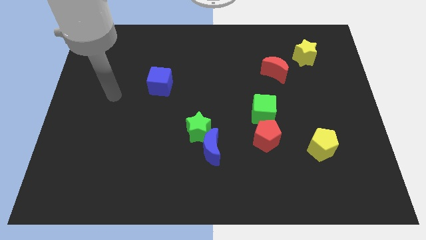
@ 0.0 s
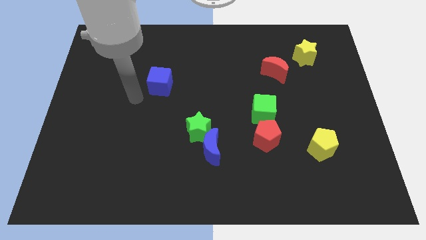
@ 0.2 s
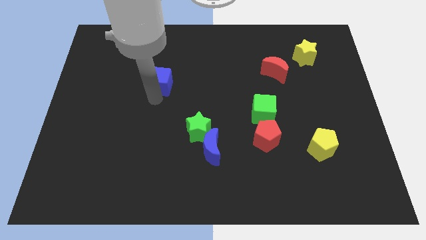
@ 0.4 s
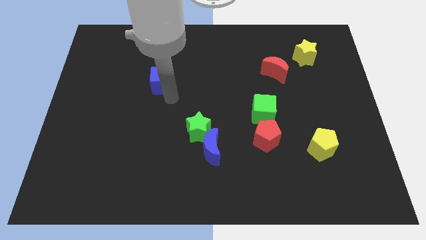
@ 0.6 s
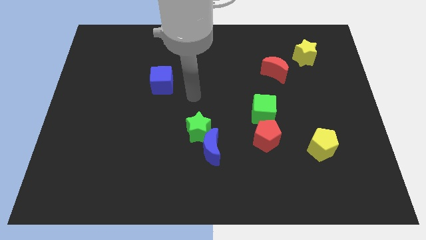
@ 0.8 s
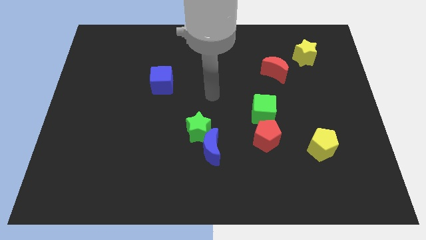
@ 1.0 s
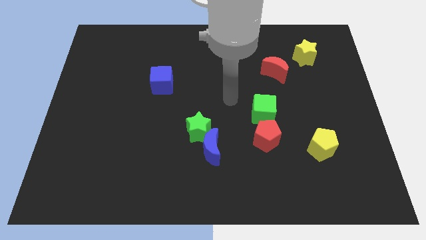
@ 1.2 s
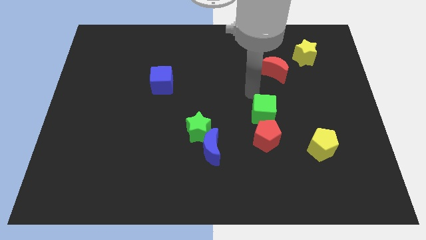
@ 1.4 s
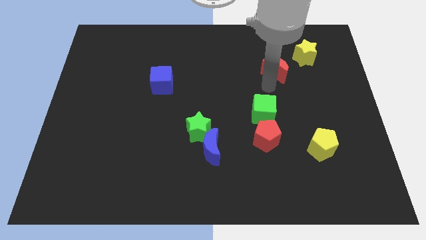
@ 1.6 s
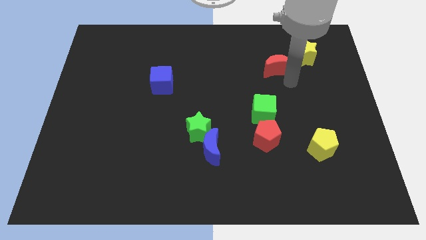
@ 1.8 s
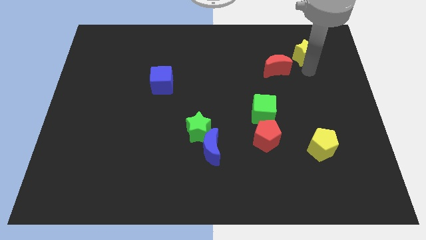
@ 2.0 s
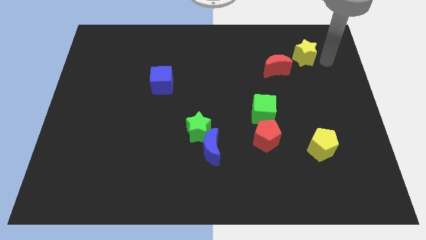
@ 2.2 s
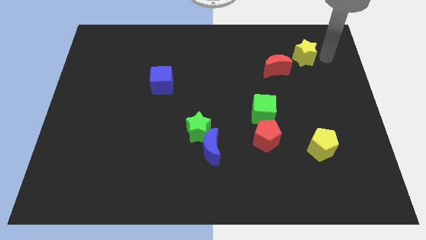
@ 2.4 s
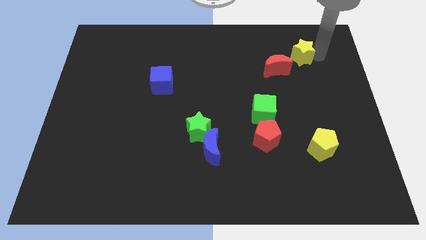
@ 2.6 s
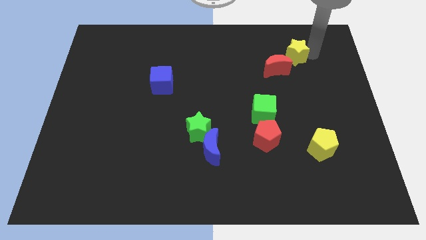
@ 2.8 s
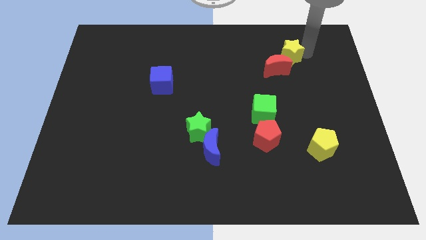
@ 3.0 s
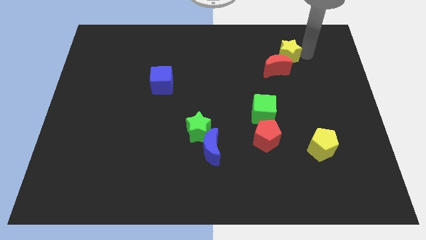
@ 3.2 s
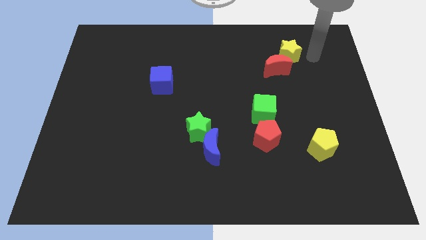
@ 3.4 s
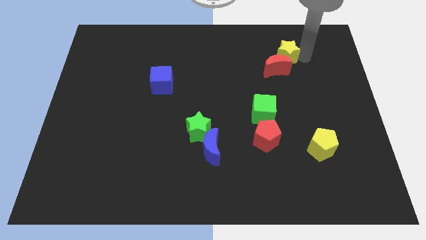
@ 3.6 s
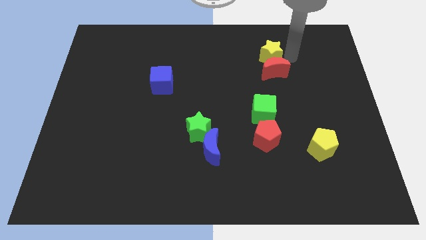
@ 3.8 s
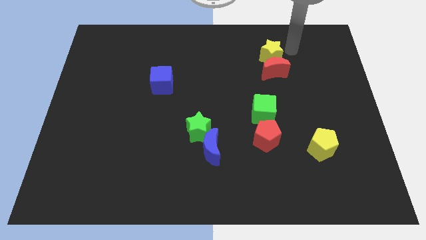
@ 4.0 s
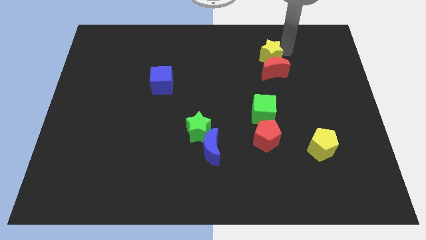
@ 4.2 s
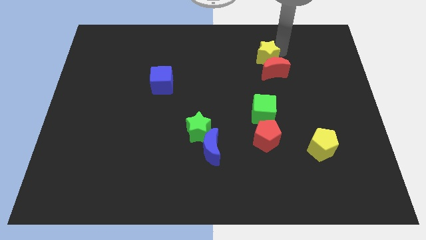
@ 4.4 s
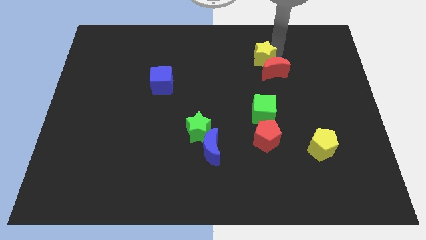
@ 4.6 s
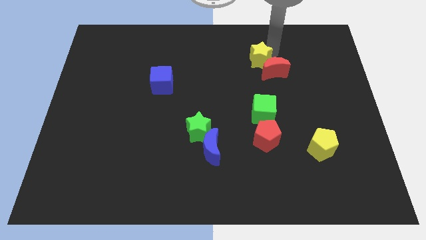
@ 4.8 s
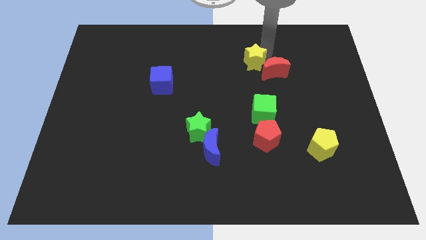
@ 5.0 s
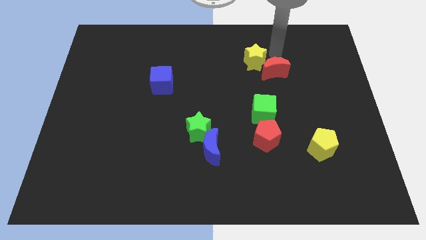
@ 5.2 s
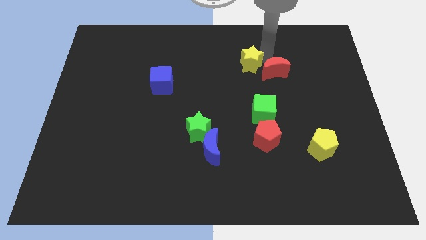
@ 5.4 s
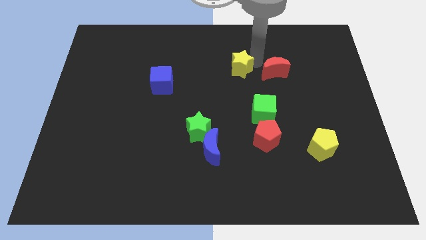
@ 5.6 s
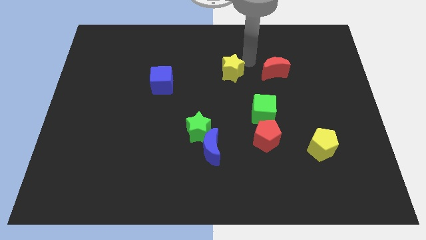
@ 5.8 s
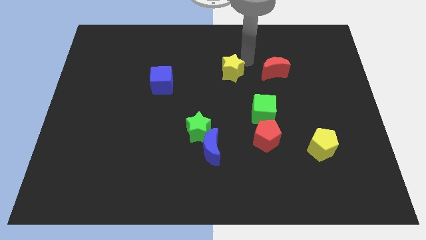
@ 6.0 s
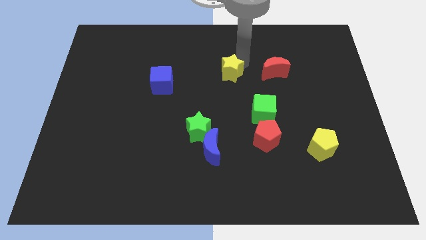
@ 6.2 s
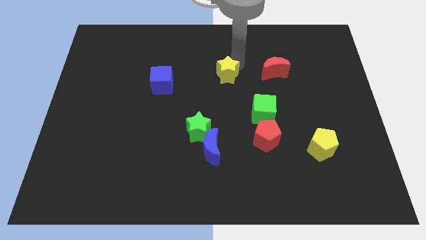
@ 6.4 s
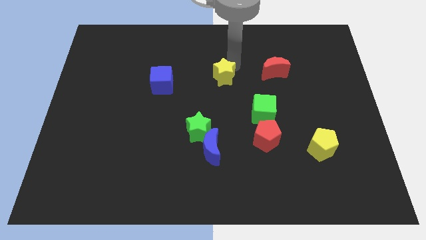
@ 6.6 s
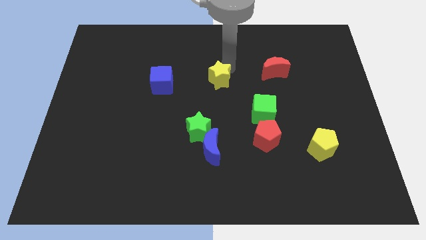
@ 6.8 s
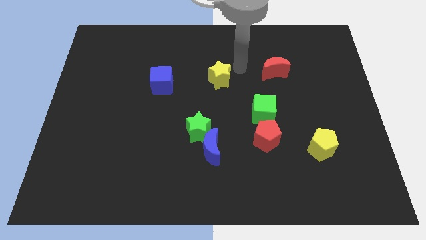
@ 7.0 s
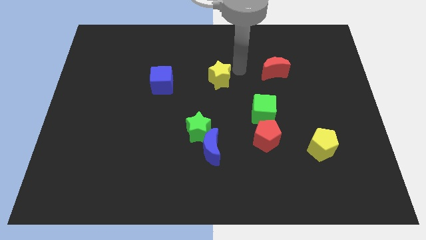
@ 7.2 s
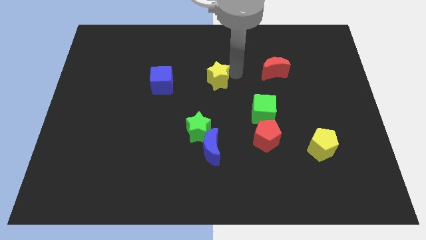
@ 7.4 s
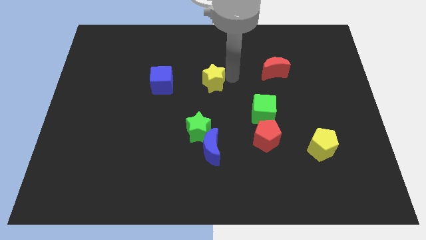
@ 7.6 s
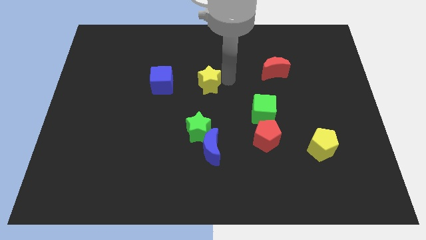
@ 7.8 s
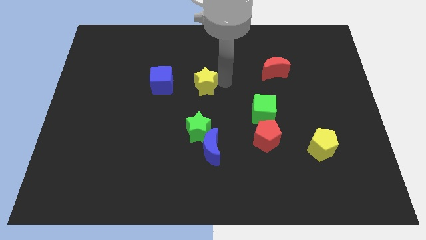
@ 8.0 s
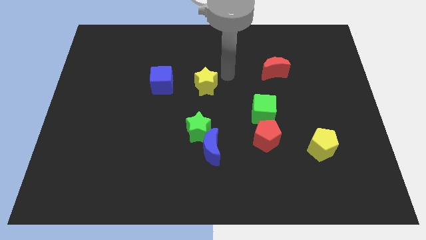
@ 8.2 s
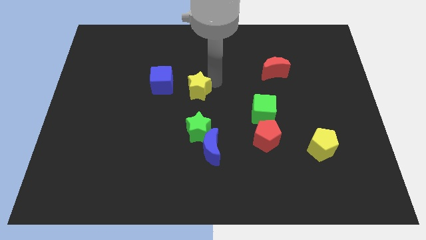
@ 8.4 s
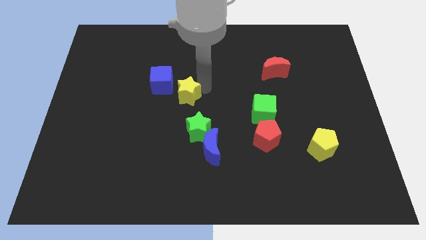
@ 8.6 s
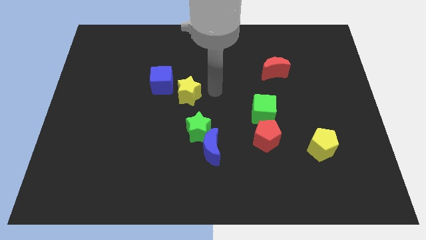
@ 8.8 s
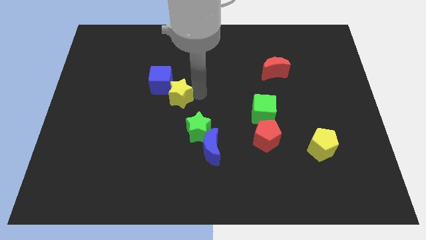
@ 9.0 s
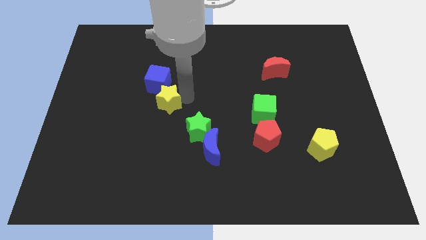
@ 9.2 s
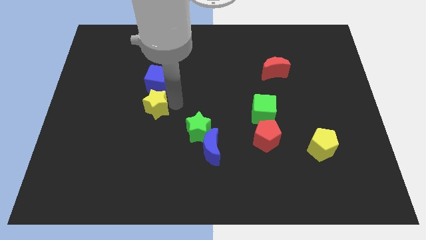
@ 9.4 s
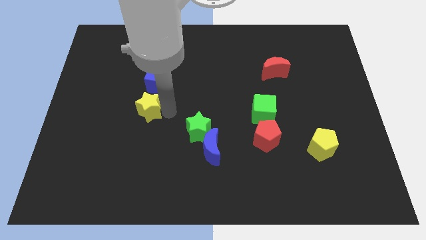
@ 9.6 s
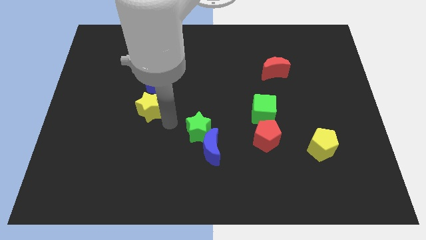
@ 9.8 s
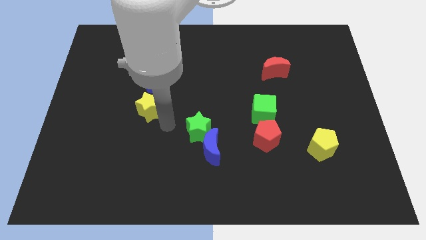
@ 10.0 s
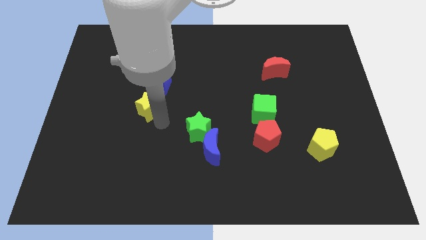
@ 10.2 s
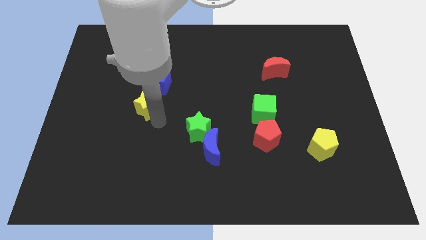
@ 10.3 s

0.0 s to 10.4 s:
push the yellow star to the bottom left of the blue cube

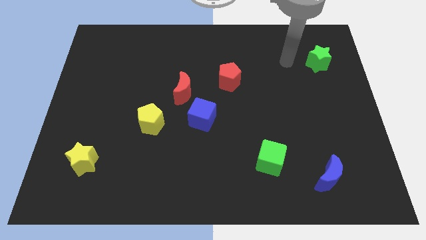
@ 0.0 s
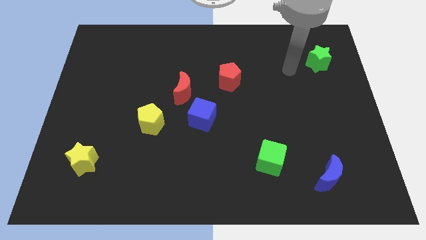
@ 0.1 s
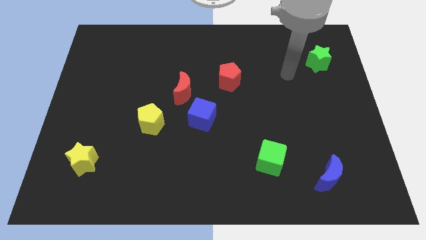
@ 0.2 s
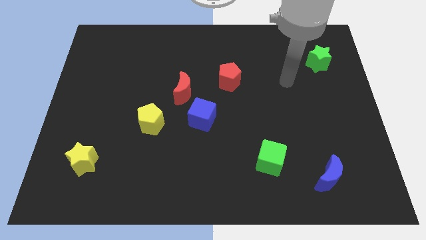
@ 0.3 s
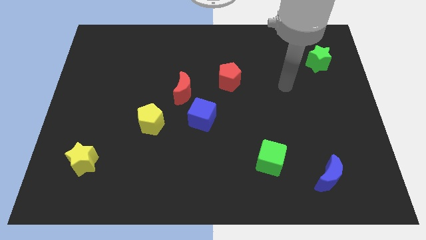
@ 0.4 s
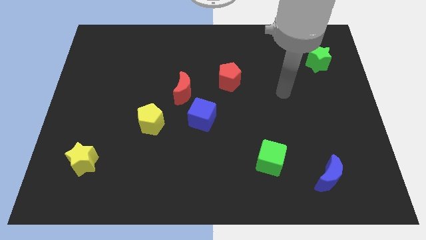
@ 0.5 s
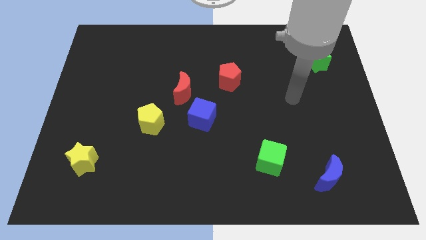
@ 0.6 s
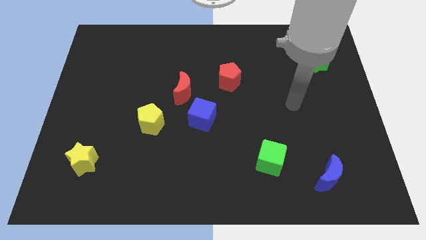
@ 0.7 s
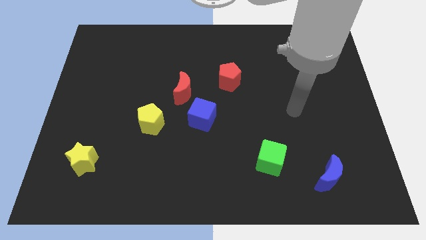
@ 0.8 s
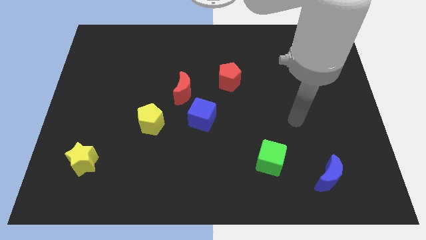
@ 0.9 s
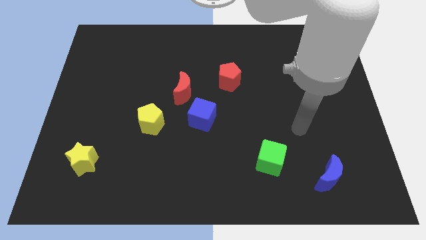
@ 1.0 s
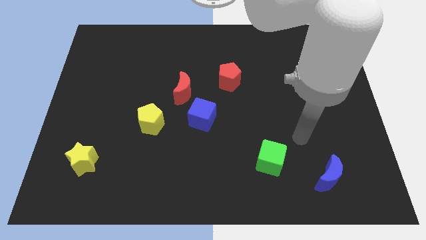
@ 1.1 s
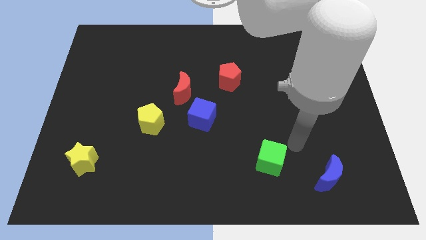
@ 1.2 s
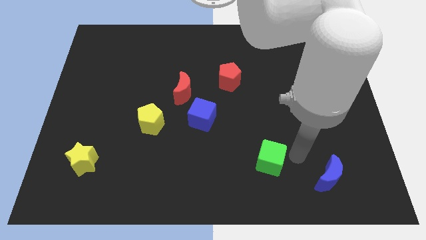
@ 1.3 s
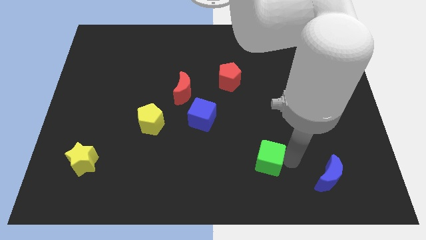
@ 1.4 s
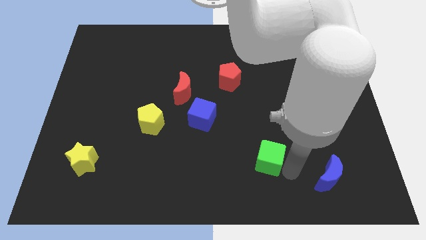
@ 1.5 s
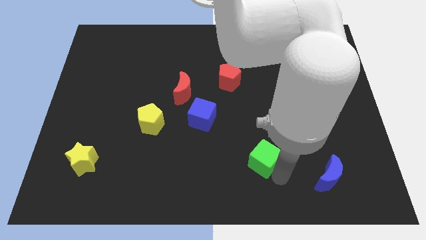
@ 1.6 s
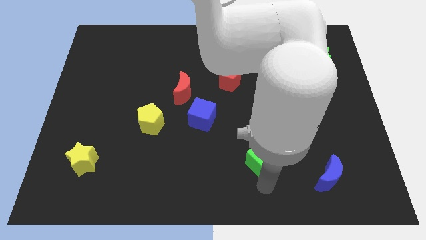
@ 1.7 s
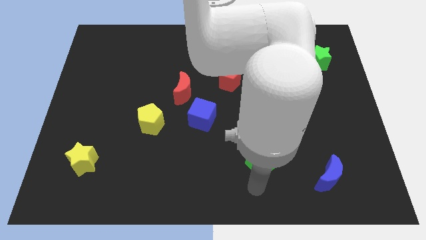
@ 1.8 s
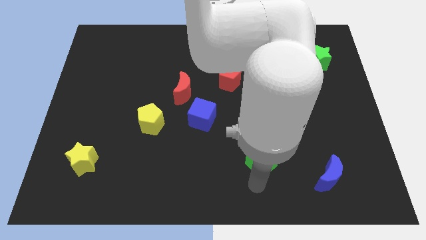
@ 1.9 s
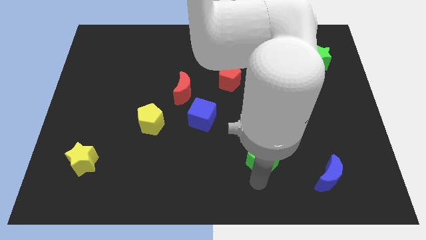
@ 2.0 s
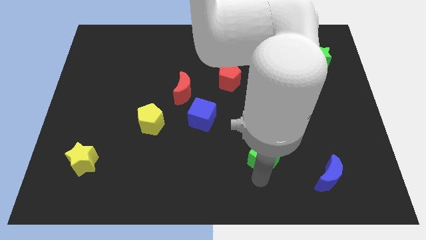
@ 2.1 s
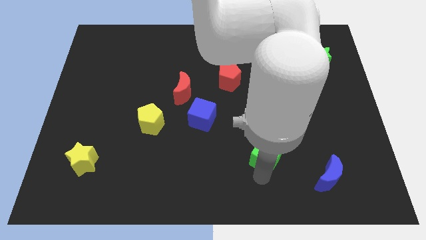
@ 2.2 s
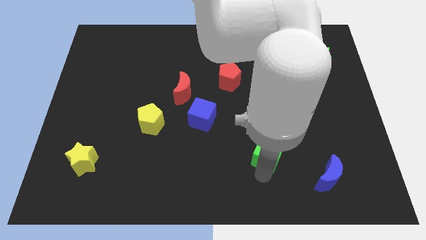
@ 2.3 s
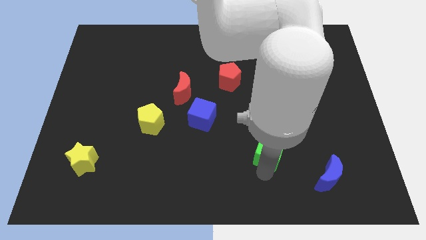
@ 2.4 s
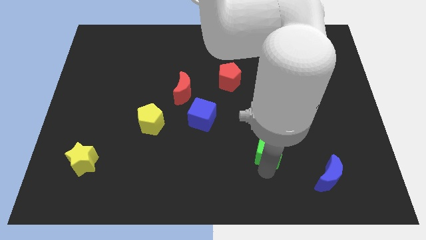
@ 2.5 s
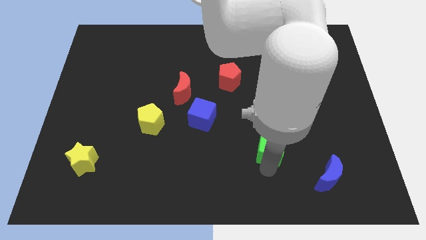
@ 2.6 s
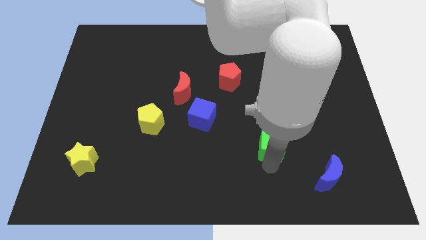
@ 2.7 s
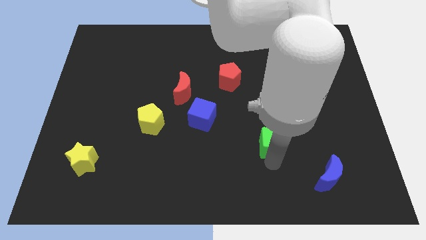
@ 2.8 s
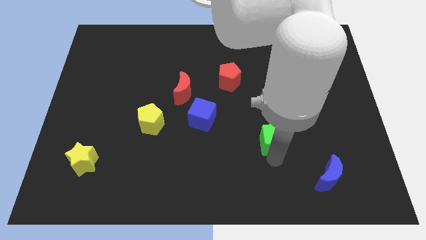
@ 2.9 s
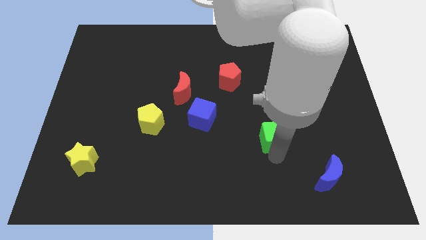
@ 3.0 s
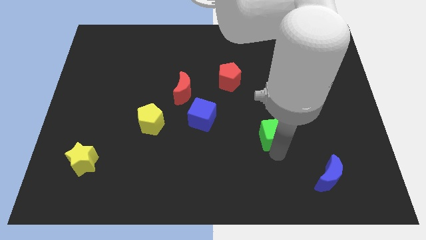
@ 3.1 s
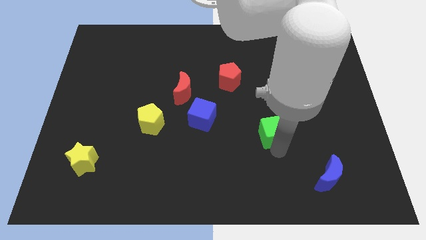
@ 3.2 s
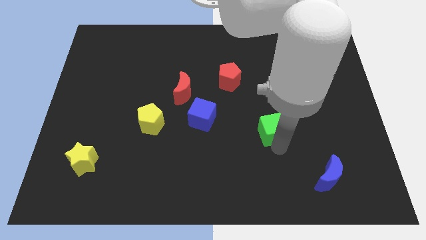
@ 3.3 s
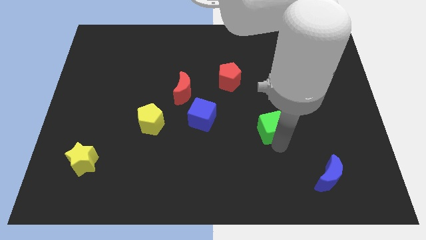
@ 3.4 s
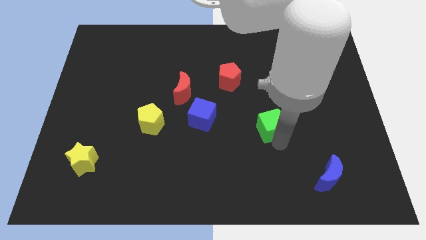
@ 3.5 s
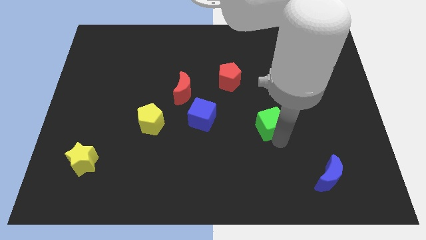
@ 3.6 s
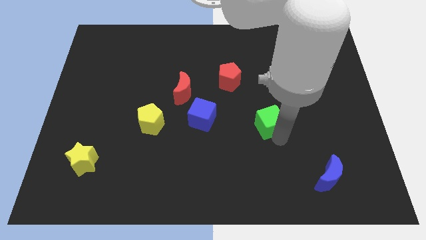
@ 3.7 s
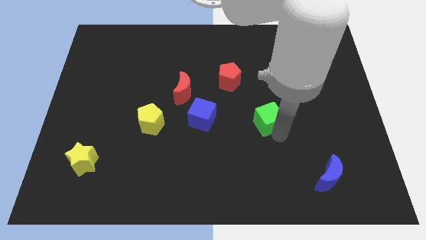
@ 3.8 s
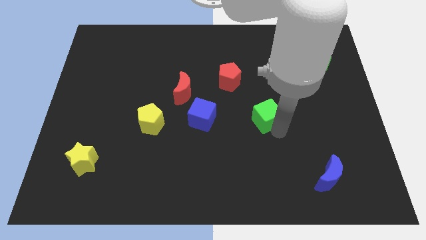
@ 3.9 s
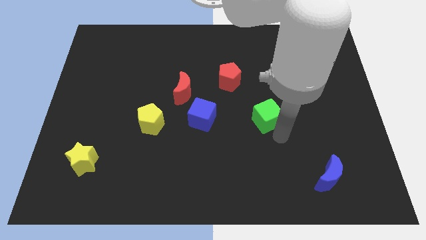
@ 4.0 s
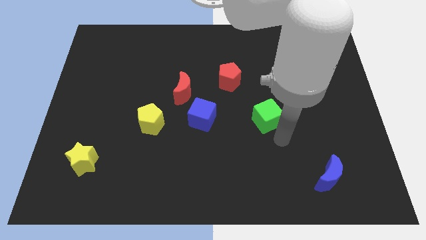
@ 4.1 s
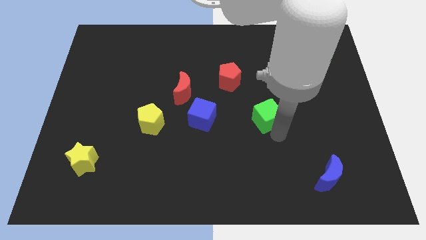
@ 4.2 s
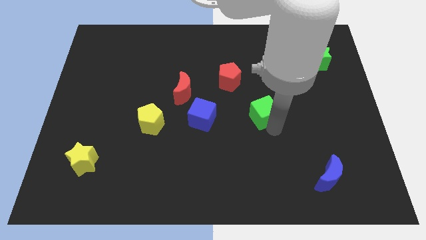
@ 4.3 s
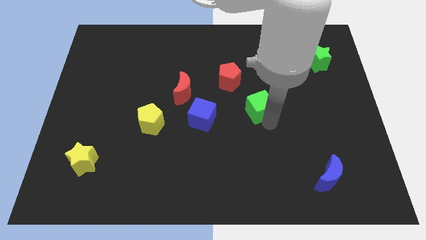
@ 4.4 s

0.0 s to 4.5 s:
slide the green cube diagonally down and to the right of the red pentagon
